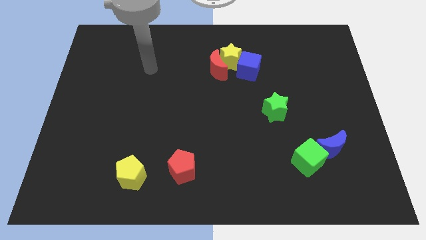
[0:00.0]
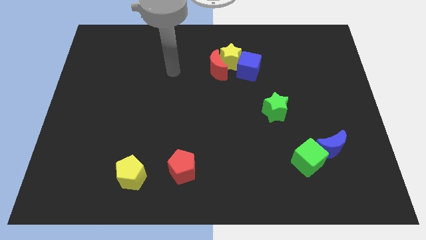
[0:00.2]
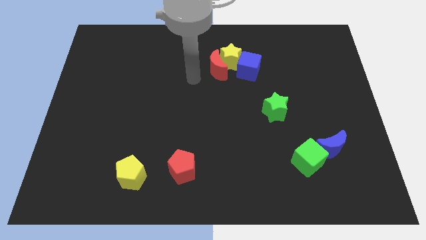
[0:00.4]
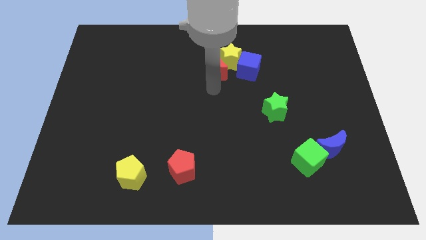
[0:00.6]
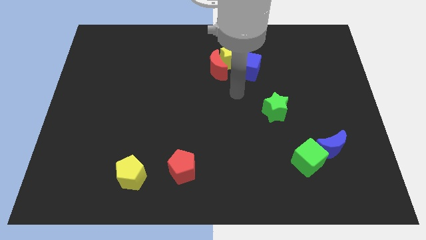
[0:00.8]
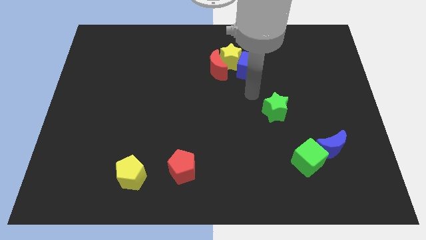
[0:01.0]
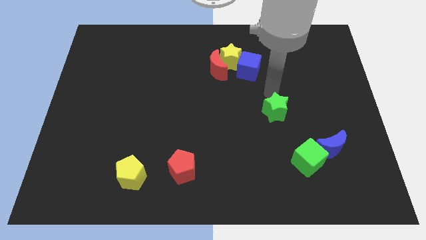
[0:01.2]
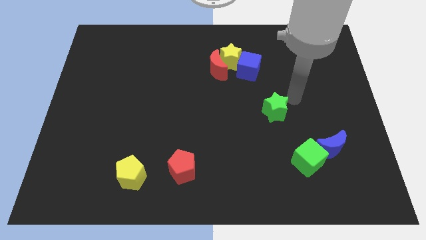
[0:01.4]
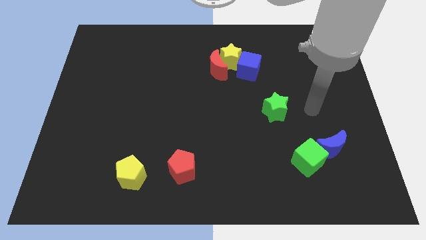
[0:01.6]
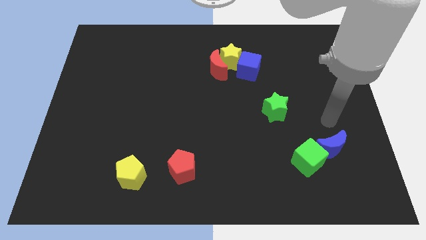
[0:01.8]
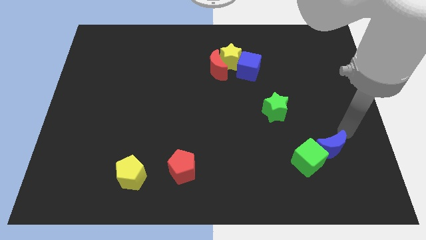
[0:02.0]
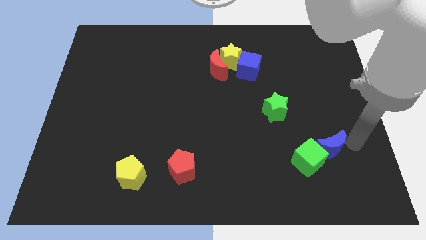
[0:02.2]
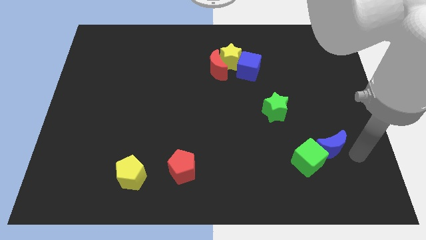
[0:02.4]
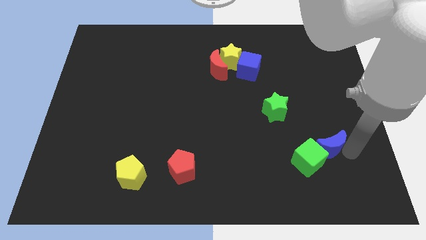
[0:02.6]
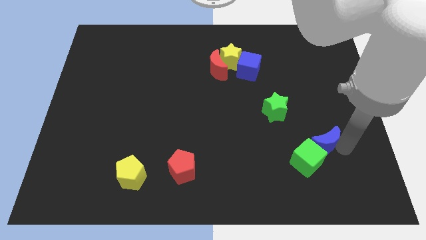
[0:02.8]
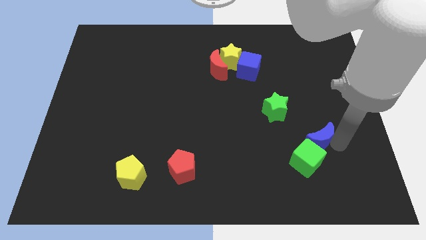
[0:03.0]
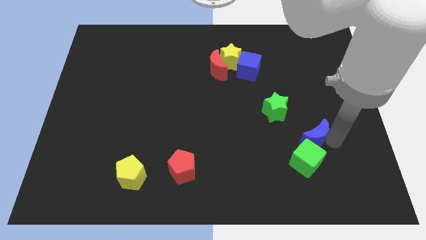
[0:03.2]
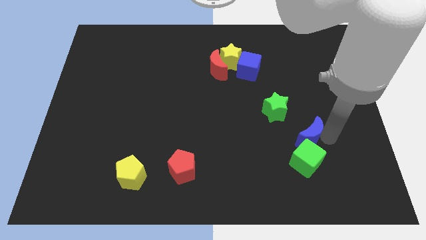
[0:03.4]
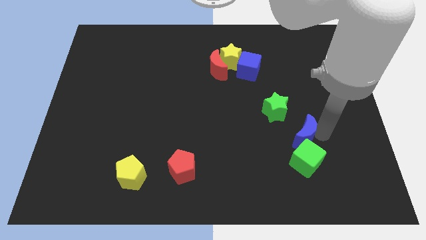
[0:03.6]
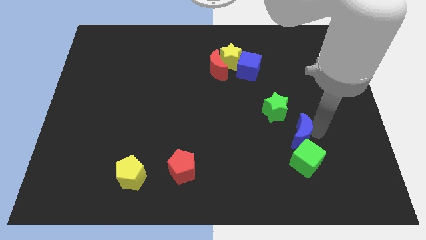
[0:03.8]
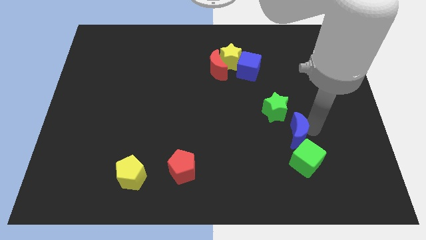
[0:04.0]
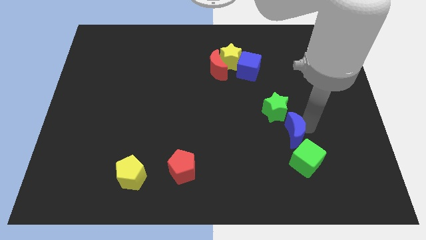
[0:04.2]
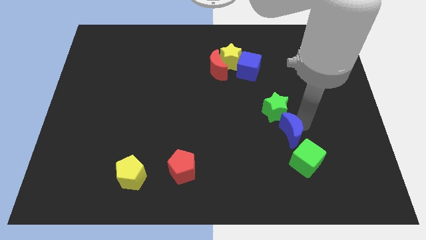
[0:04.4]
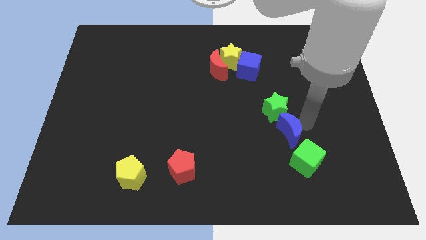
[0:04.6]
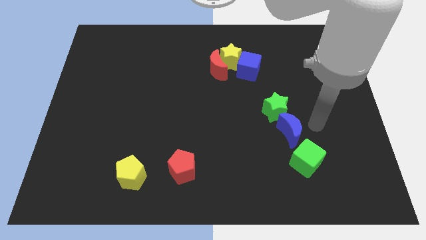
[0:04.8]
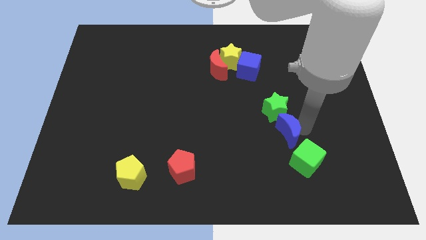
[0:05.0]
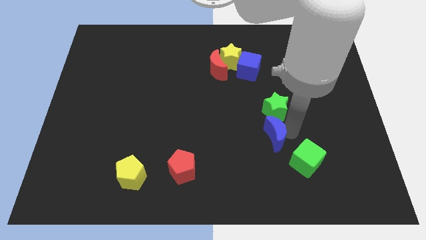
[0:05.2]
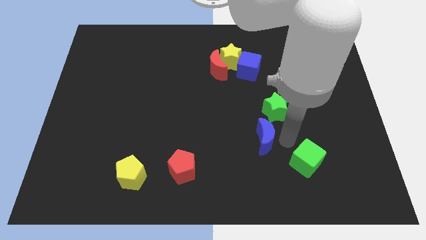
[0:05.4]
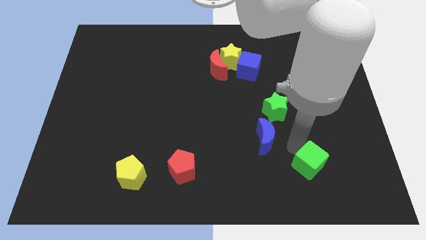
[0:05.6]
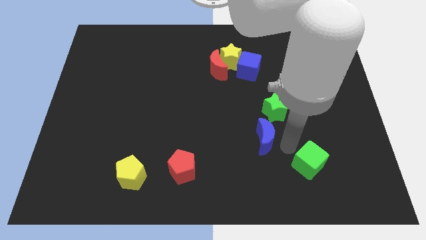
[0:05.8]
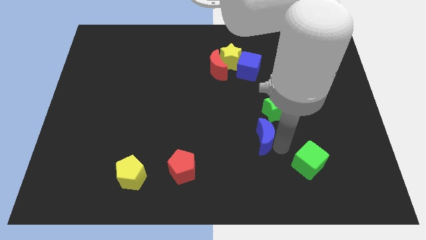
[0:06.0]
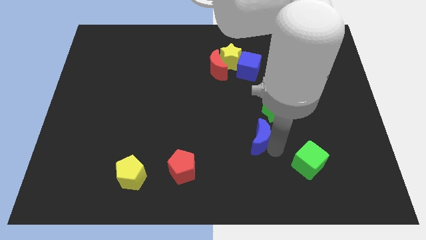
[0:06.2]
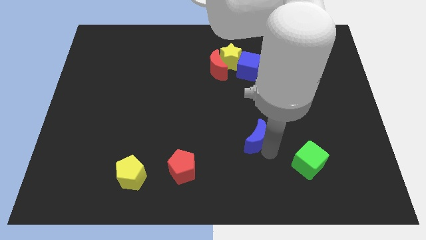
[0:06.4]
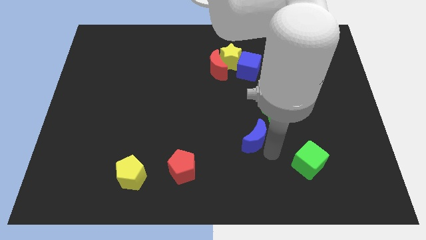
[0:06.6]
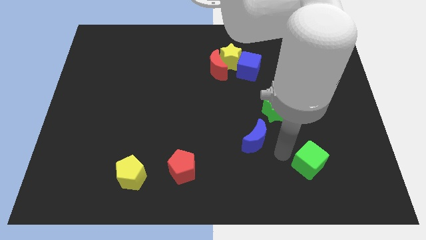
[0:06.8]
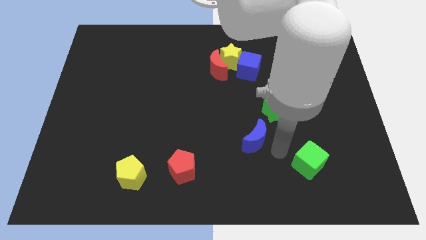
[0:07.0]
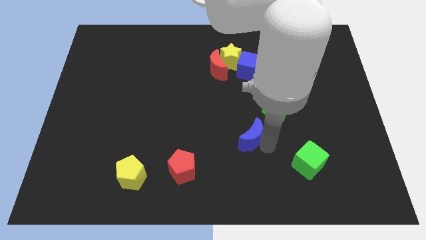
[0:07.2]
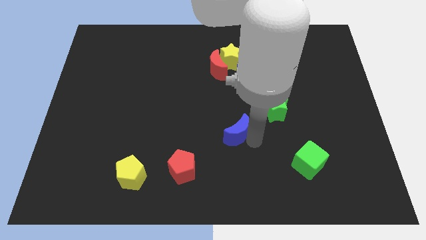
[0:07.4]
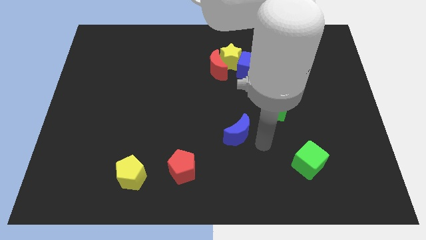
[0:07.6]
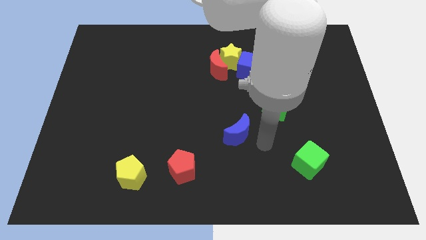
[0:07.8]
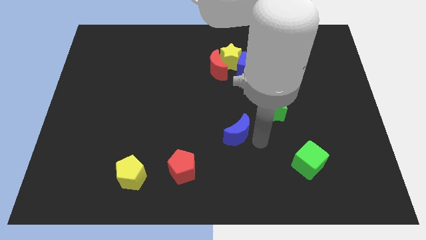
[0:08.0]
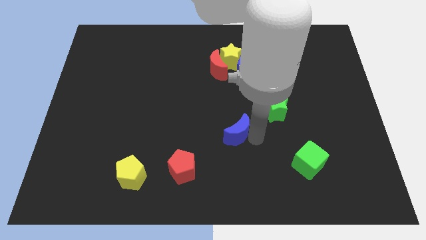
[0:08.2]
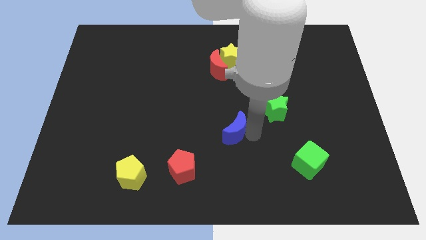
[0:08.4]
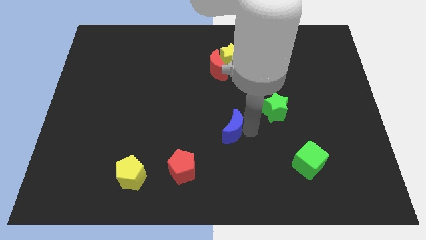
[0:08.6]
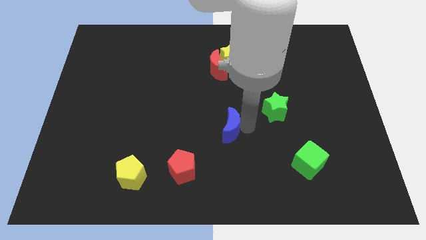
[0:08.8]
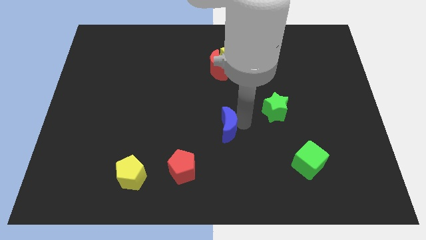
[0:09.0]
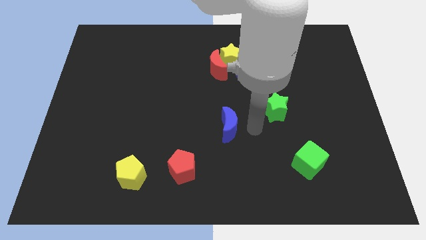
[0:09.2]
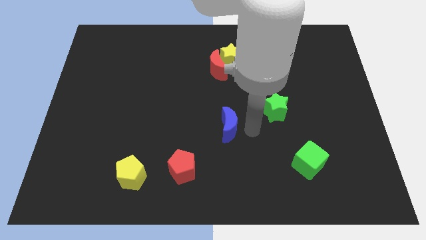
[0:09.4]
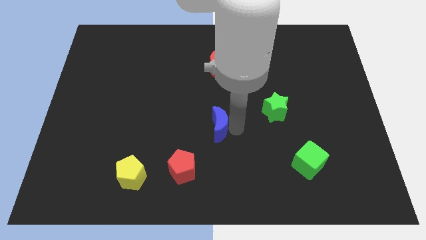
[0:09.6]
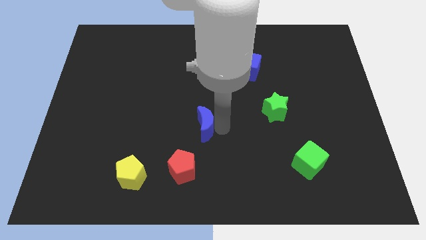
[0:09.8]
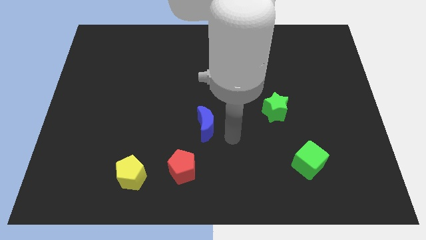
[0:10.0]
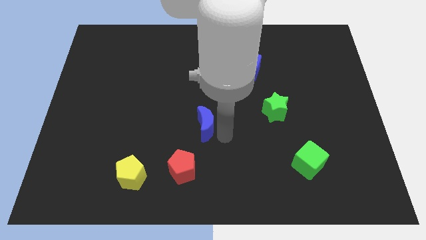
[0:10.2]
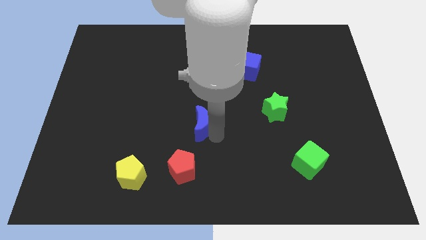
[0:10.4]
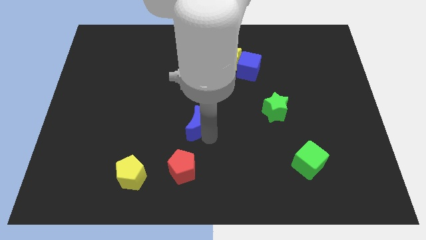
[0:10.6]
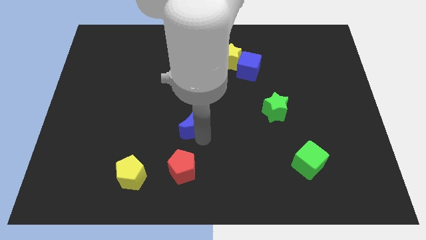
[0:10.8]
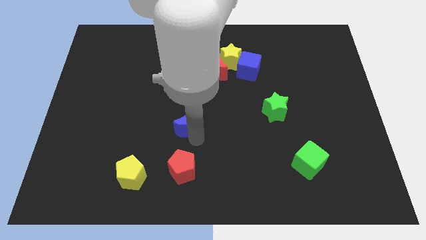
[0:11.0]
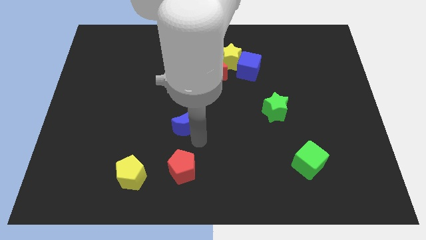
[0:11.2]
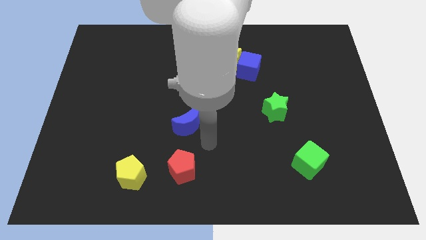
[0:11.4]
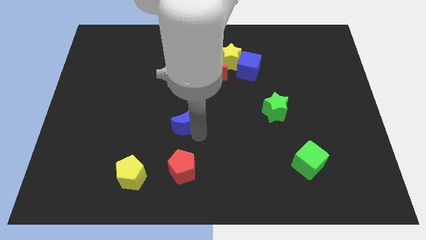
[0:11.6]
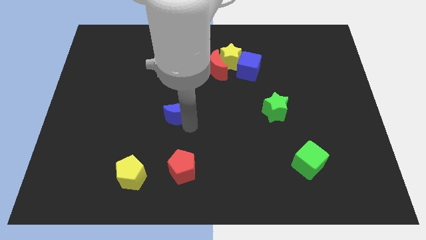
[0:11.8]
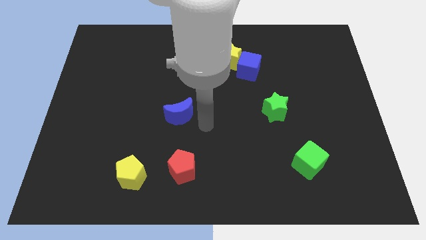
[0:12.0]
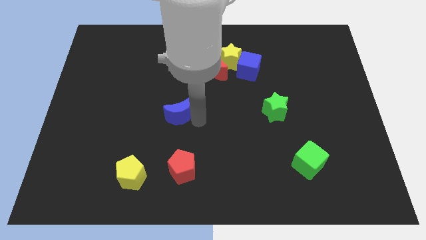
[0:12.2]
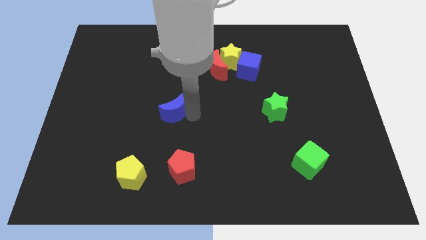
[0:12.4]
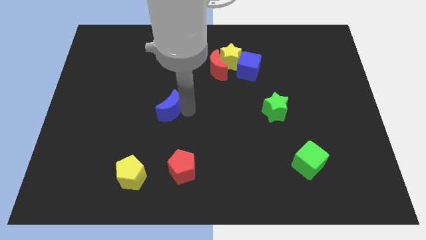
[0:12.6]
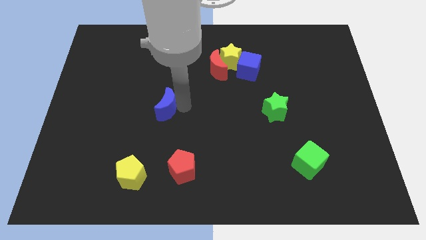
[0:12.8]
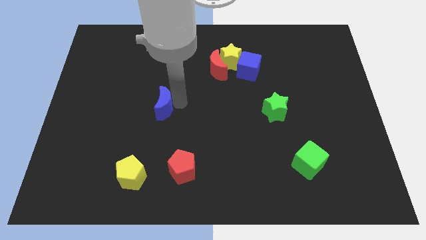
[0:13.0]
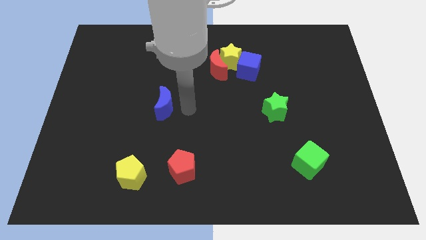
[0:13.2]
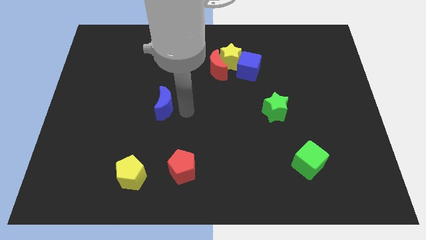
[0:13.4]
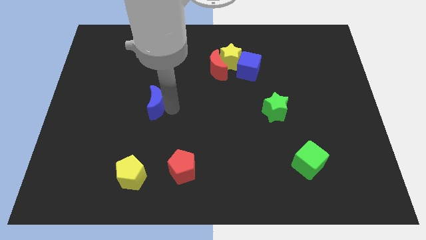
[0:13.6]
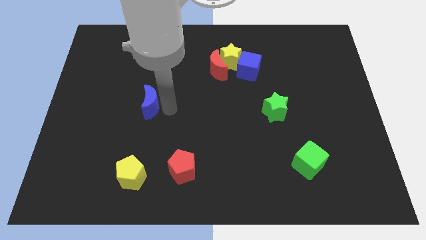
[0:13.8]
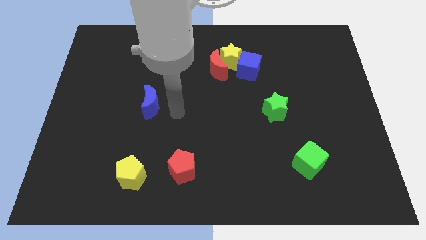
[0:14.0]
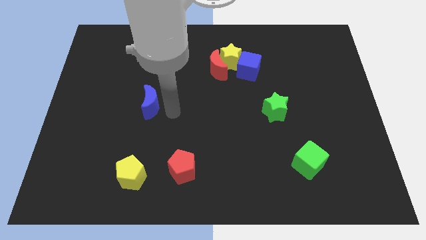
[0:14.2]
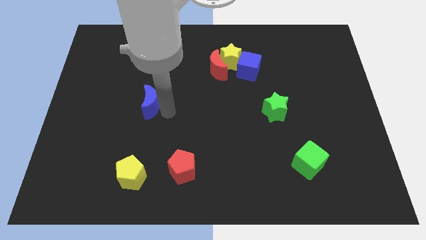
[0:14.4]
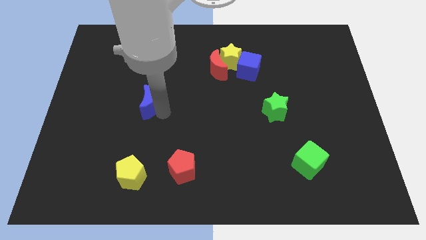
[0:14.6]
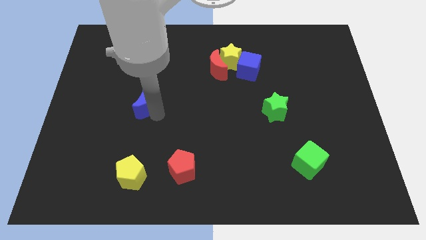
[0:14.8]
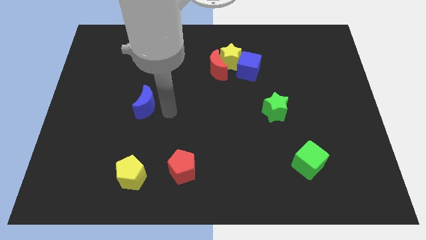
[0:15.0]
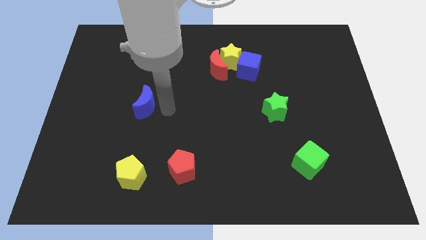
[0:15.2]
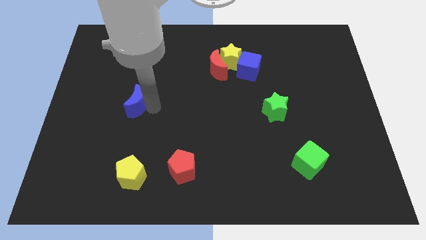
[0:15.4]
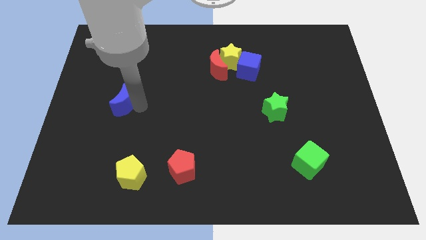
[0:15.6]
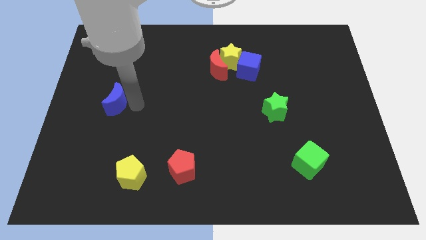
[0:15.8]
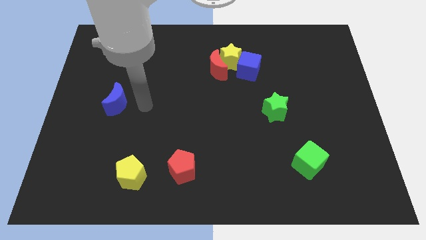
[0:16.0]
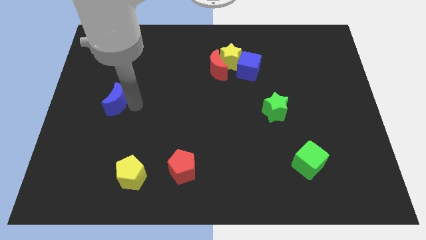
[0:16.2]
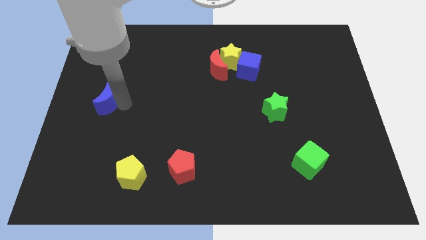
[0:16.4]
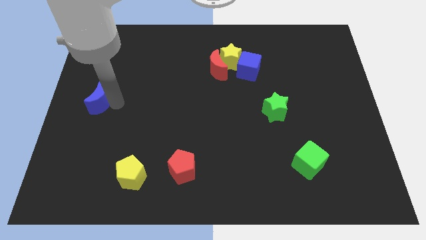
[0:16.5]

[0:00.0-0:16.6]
slide the blue moon to the center left
